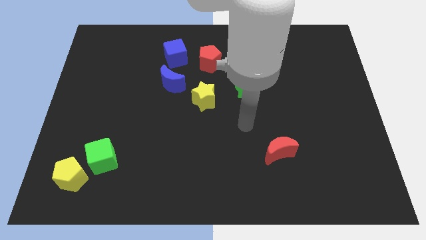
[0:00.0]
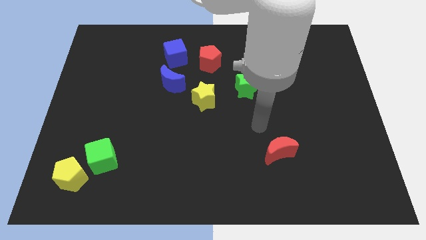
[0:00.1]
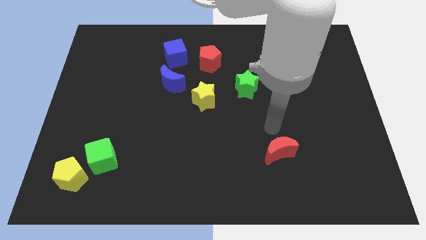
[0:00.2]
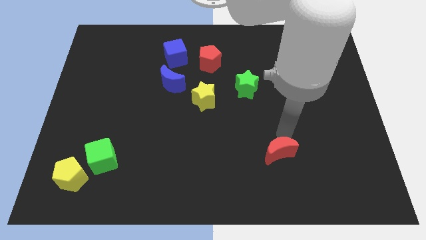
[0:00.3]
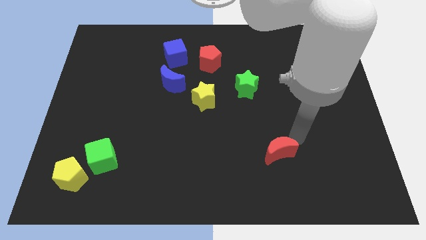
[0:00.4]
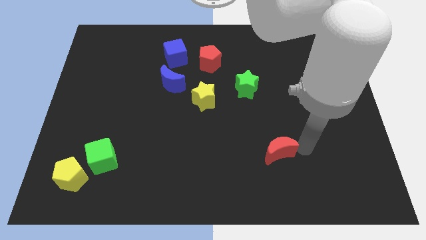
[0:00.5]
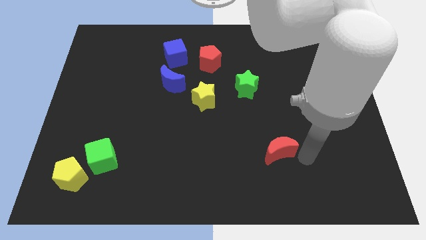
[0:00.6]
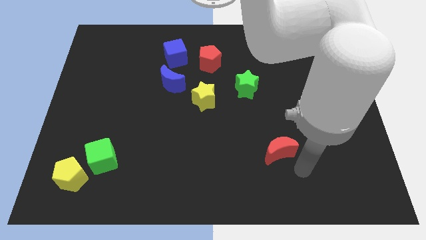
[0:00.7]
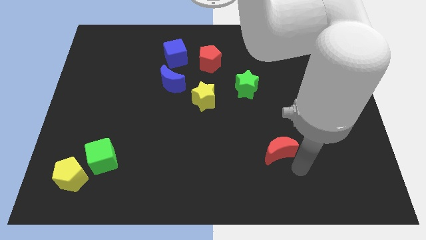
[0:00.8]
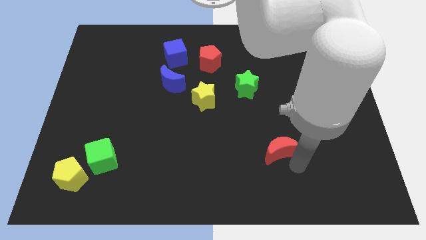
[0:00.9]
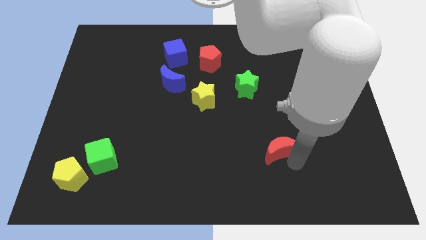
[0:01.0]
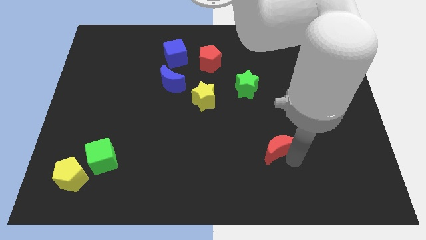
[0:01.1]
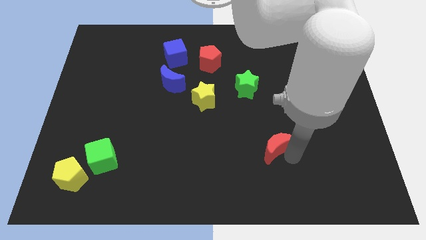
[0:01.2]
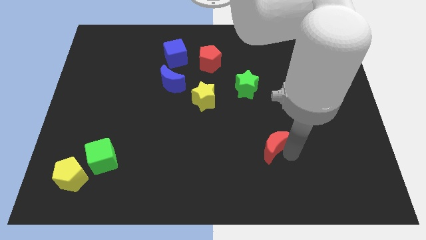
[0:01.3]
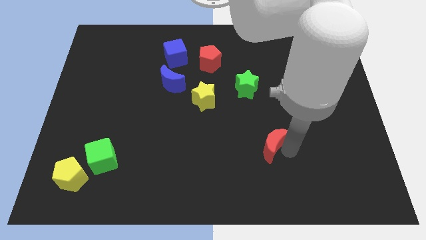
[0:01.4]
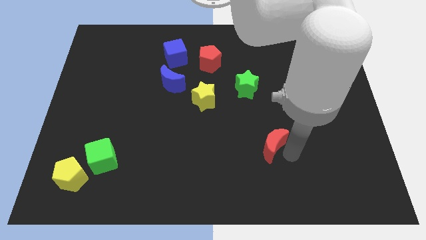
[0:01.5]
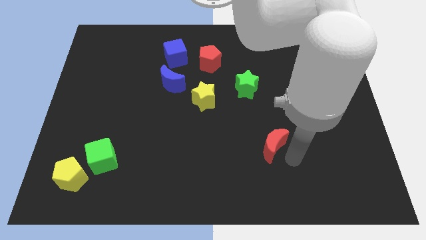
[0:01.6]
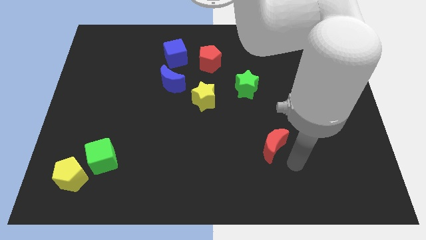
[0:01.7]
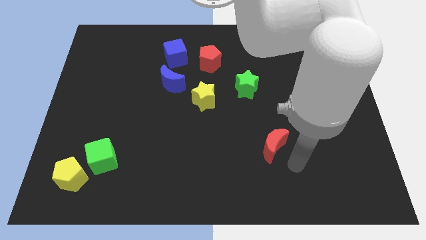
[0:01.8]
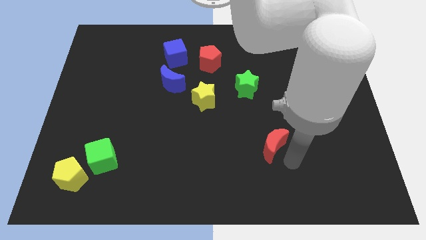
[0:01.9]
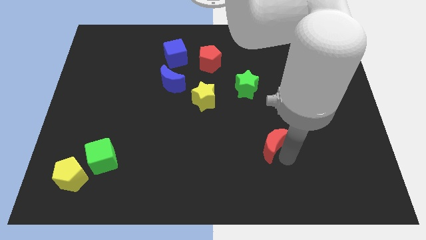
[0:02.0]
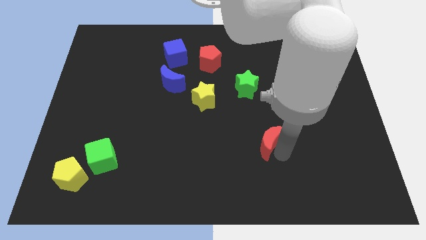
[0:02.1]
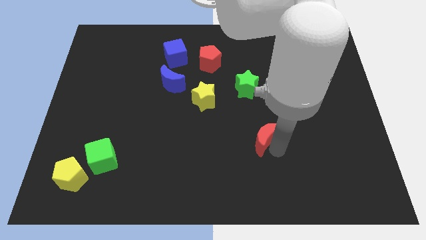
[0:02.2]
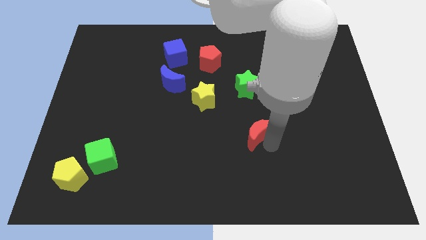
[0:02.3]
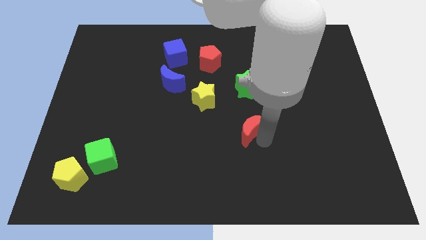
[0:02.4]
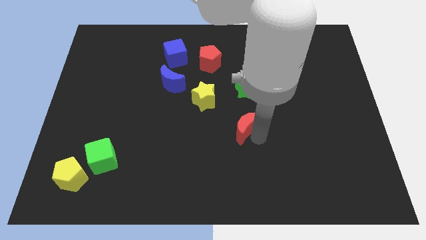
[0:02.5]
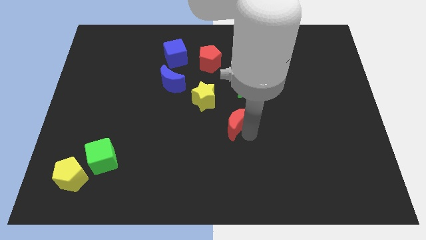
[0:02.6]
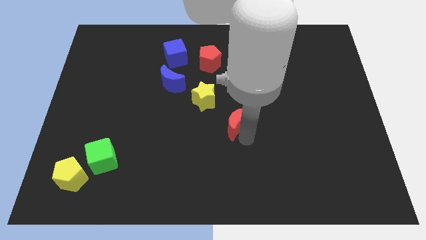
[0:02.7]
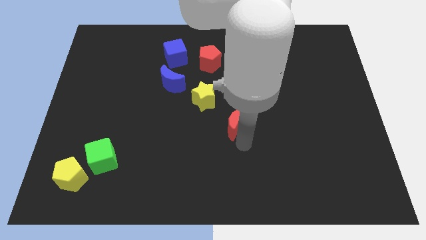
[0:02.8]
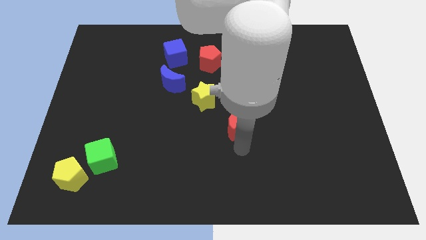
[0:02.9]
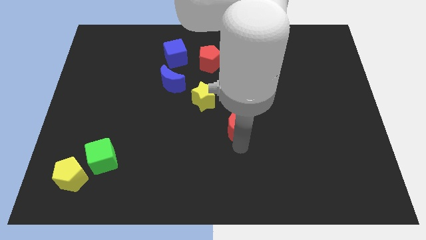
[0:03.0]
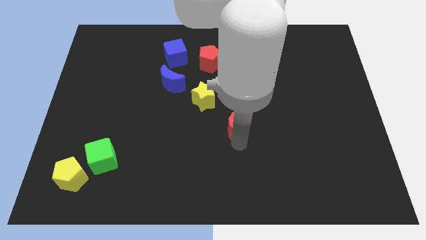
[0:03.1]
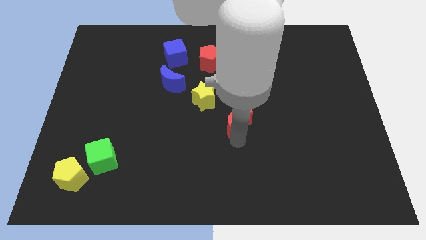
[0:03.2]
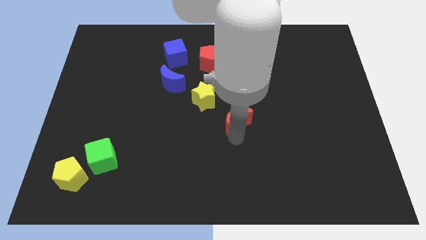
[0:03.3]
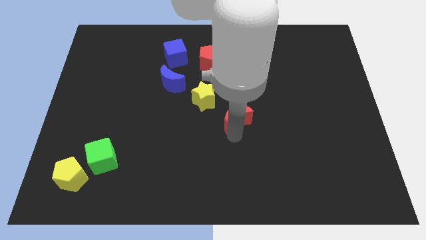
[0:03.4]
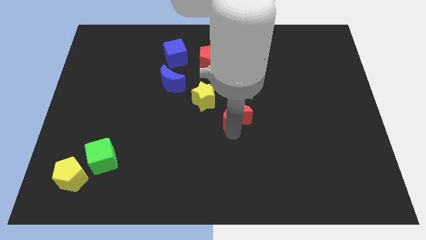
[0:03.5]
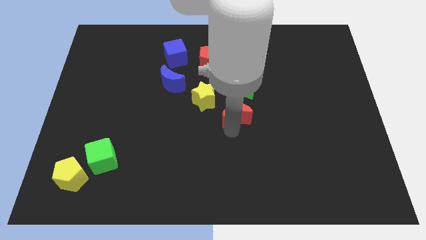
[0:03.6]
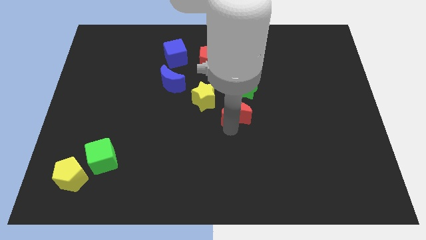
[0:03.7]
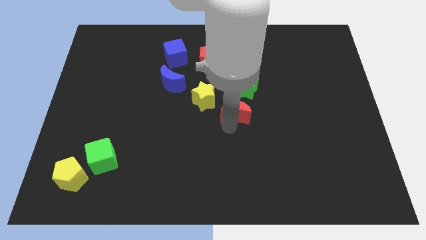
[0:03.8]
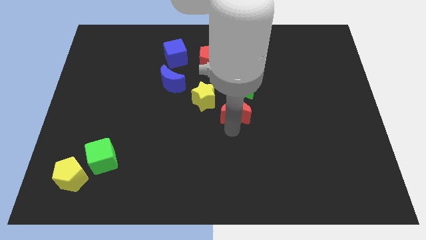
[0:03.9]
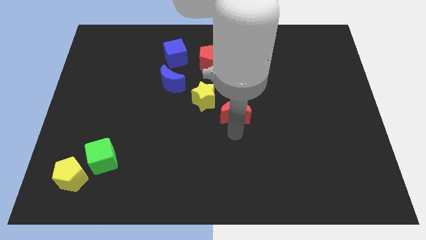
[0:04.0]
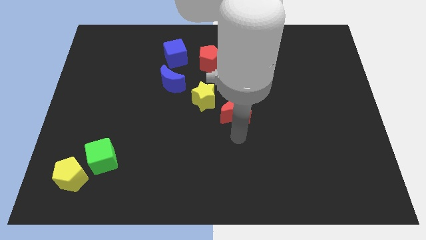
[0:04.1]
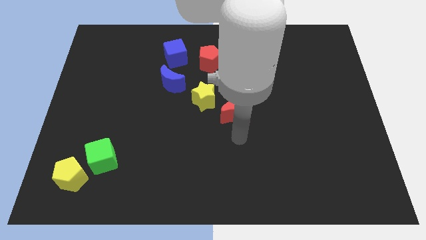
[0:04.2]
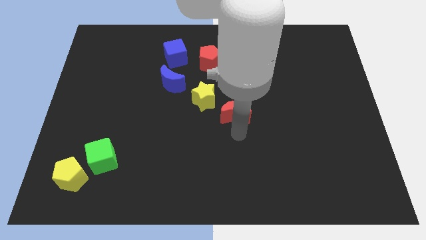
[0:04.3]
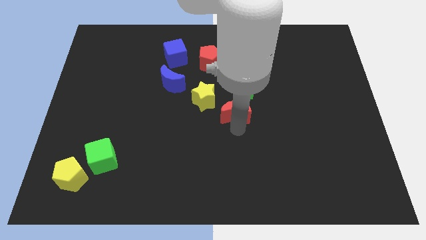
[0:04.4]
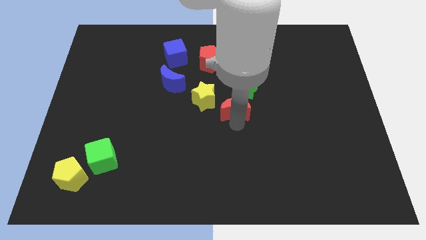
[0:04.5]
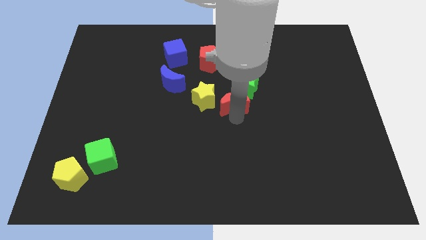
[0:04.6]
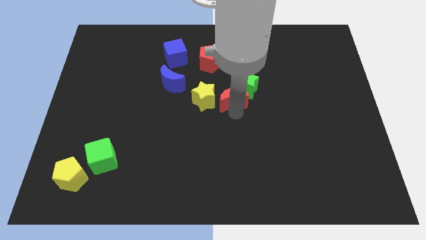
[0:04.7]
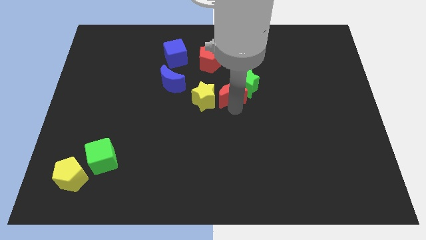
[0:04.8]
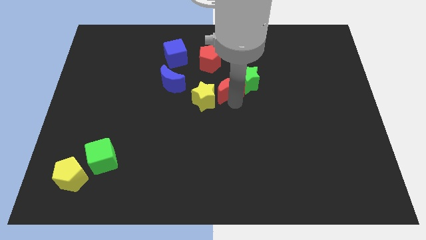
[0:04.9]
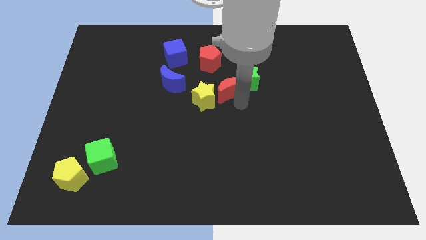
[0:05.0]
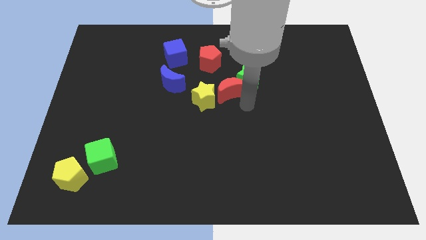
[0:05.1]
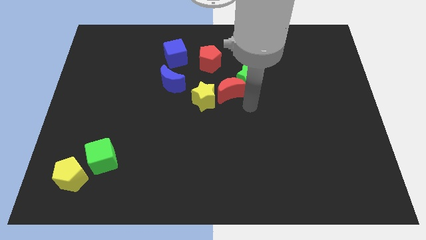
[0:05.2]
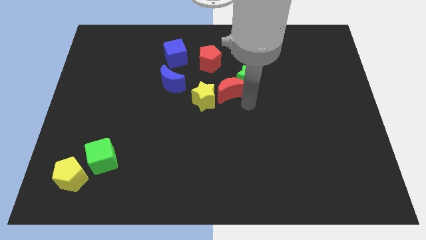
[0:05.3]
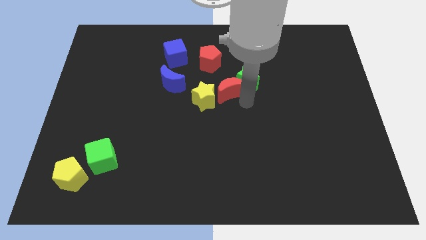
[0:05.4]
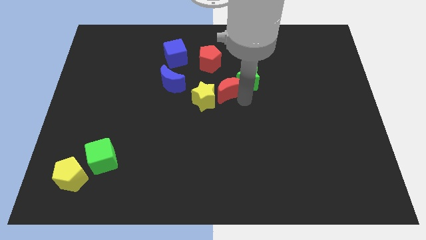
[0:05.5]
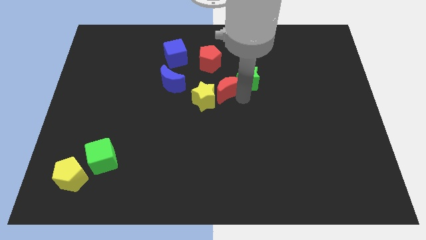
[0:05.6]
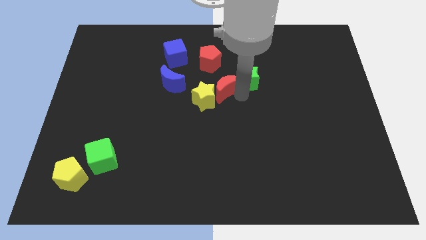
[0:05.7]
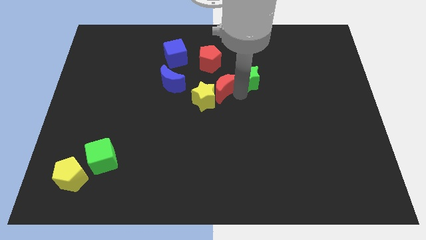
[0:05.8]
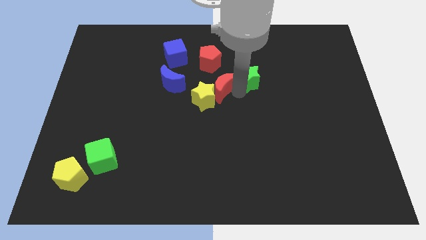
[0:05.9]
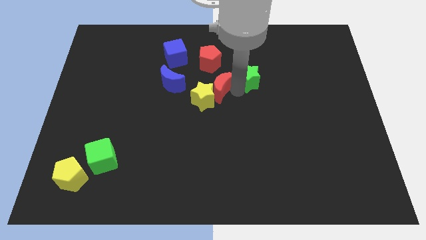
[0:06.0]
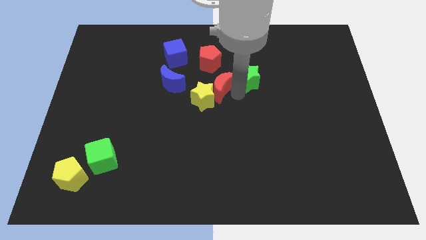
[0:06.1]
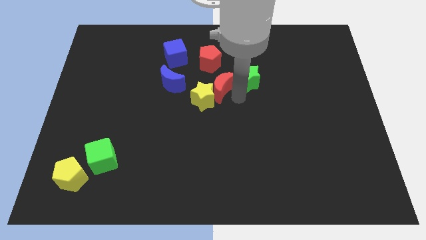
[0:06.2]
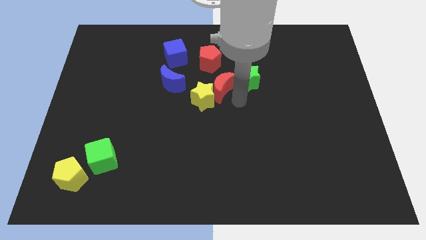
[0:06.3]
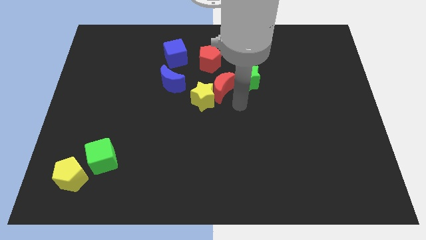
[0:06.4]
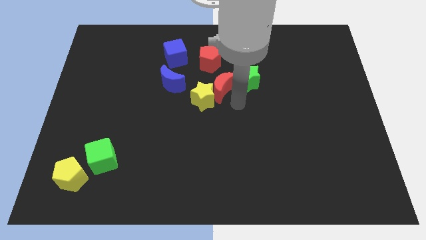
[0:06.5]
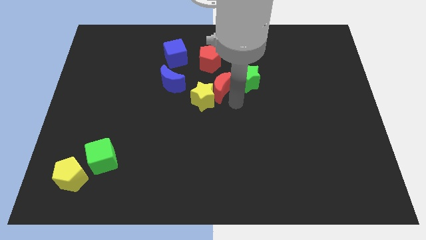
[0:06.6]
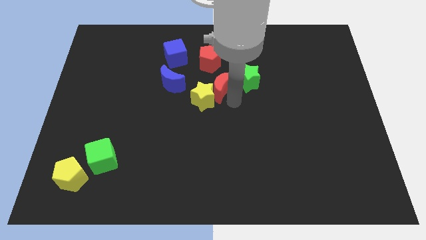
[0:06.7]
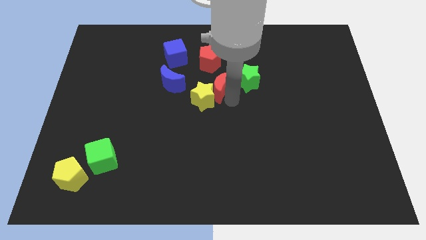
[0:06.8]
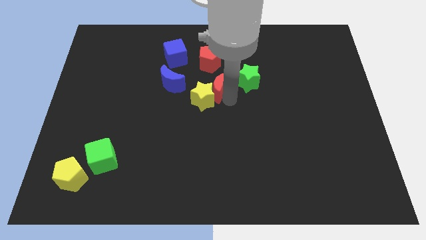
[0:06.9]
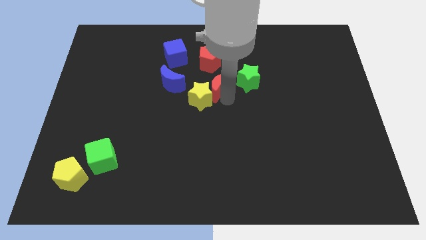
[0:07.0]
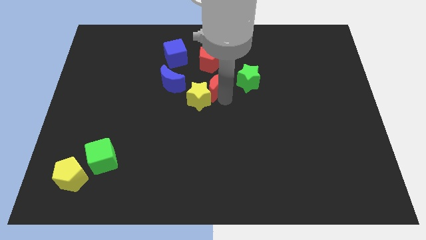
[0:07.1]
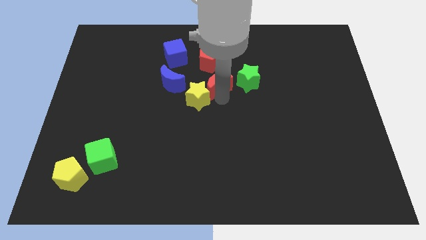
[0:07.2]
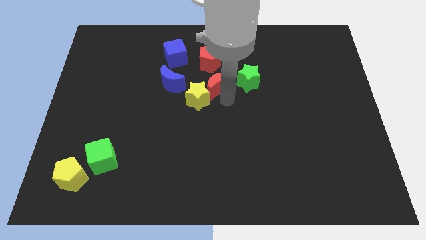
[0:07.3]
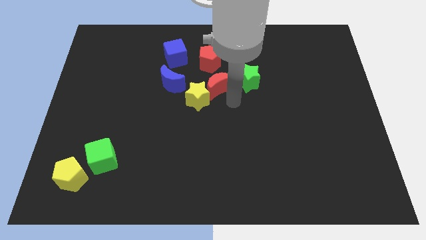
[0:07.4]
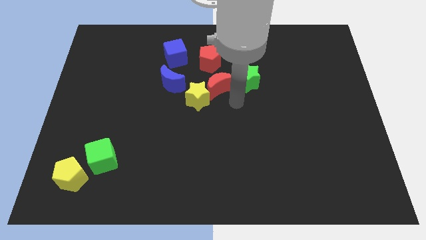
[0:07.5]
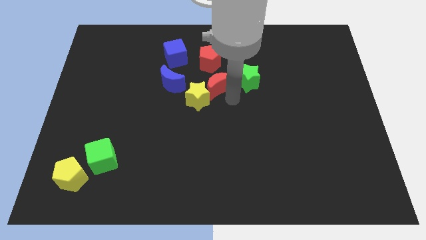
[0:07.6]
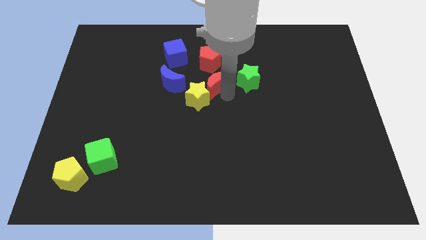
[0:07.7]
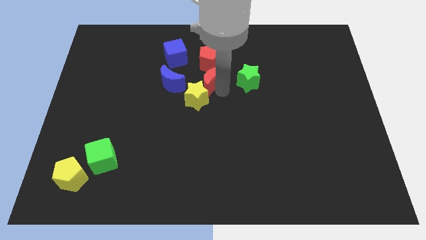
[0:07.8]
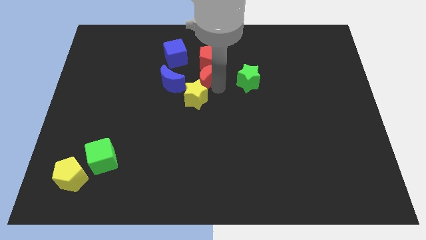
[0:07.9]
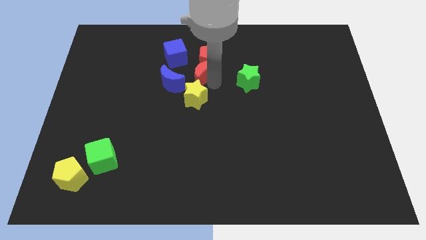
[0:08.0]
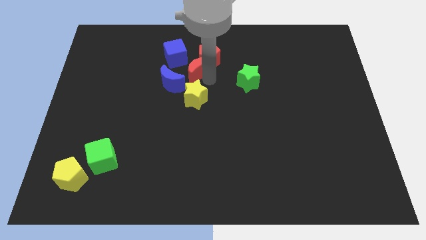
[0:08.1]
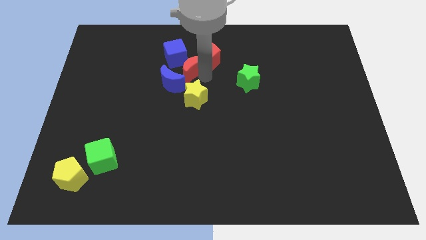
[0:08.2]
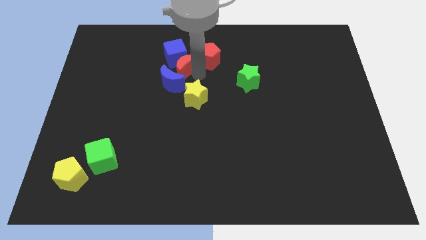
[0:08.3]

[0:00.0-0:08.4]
move the red moon to the blue cube
